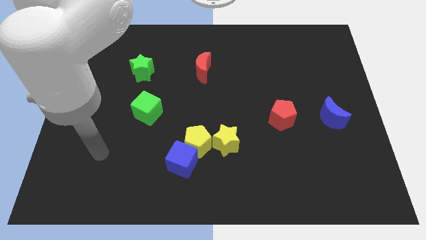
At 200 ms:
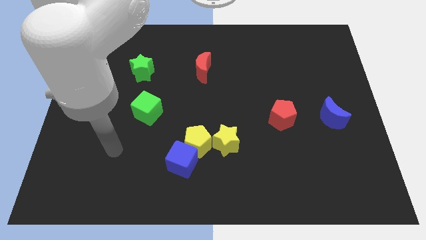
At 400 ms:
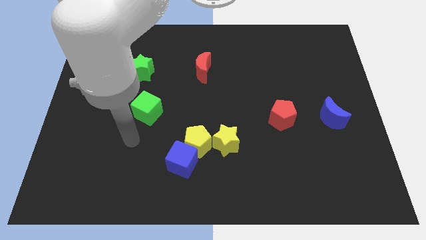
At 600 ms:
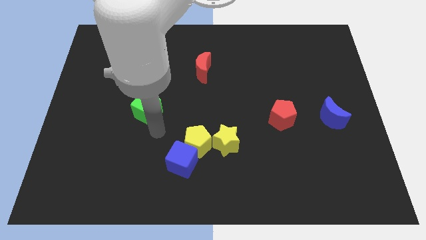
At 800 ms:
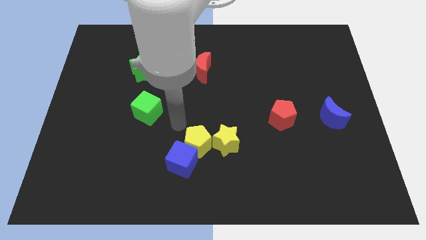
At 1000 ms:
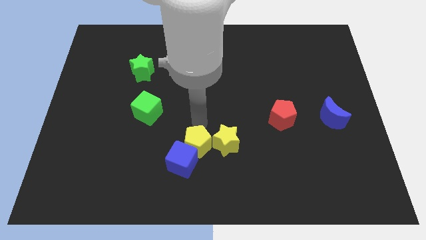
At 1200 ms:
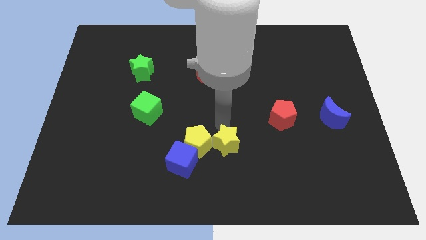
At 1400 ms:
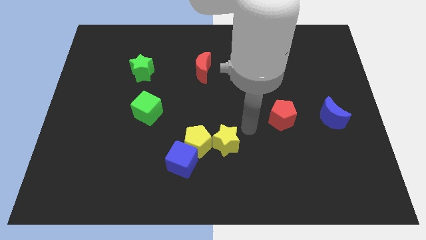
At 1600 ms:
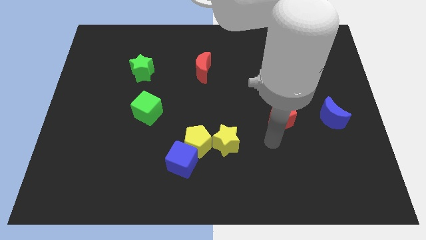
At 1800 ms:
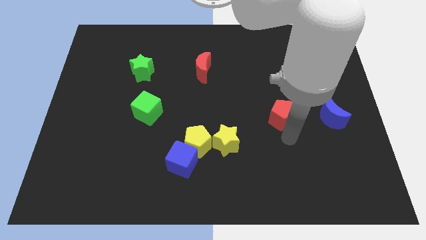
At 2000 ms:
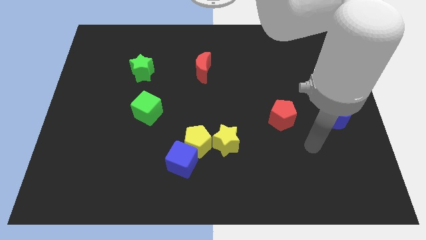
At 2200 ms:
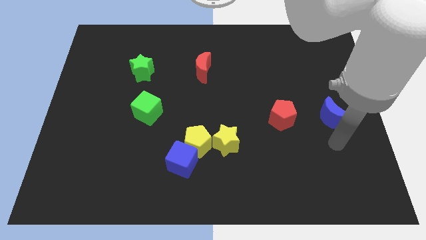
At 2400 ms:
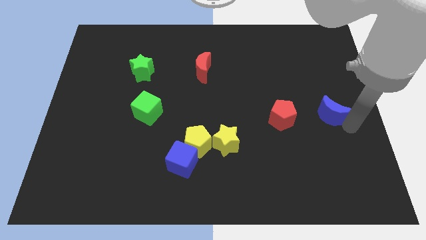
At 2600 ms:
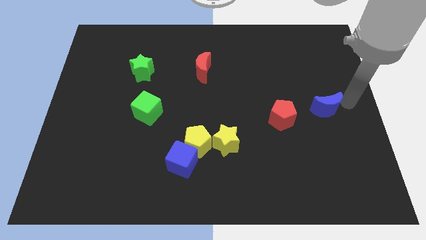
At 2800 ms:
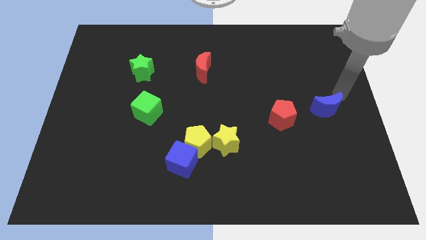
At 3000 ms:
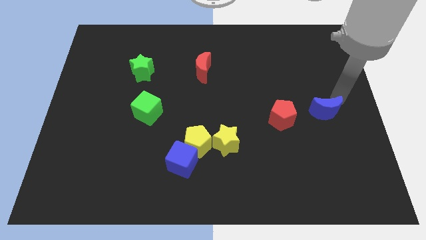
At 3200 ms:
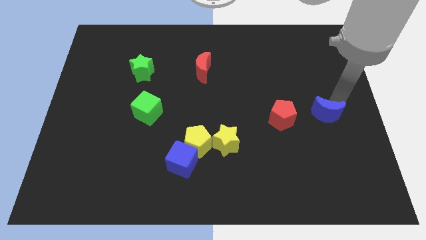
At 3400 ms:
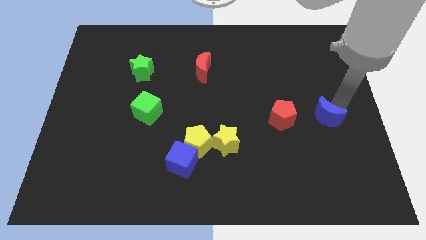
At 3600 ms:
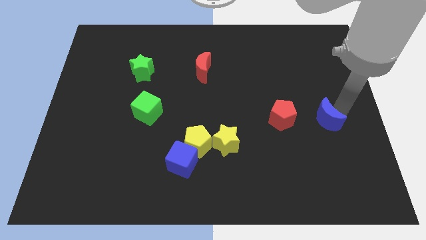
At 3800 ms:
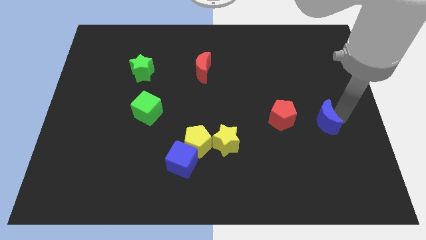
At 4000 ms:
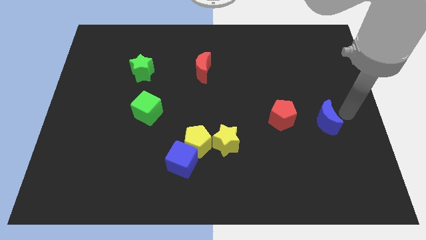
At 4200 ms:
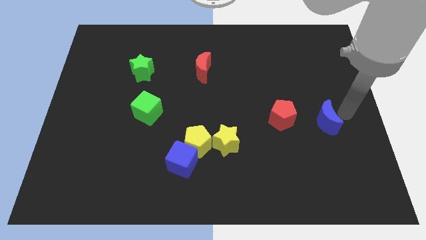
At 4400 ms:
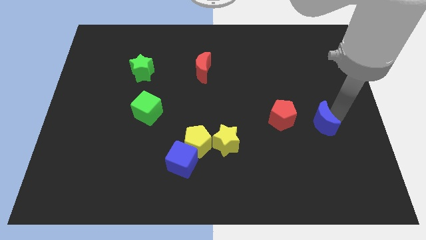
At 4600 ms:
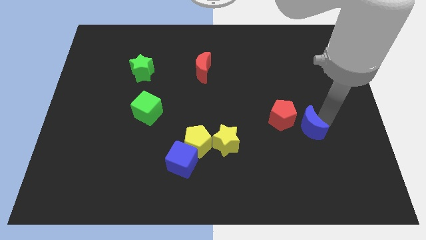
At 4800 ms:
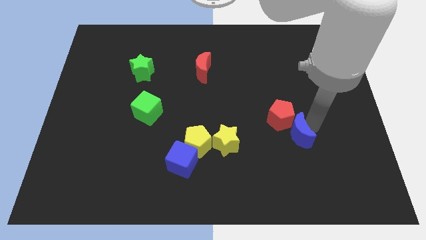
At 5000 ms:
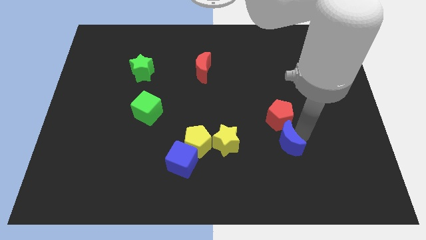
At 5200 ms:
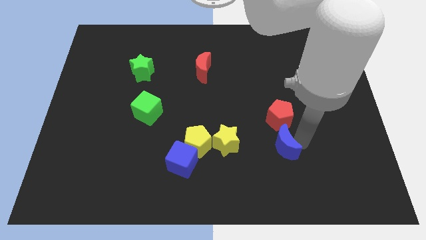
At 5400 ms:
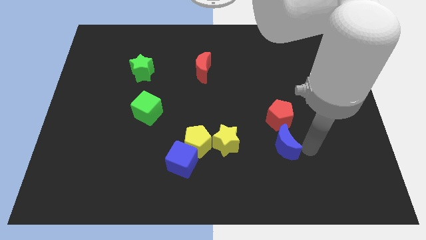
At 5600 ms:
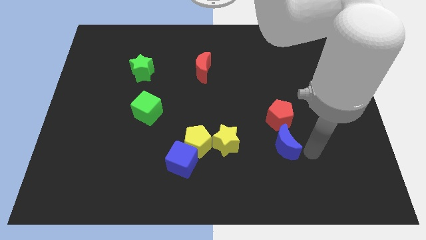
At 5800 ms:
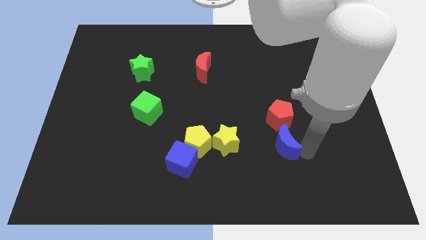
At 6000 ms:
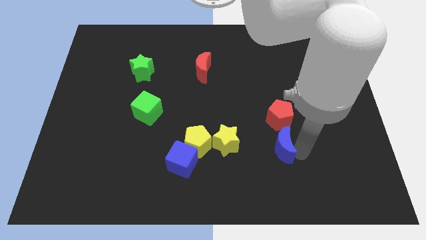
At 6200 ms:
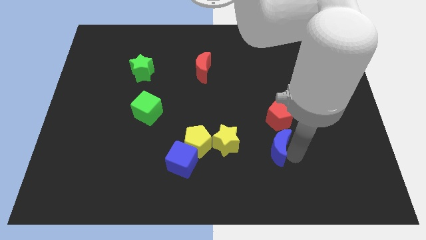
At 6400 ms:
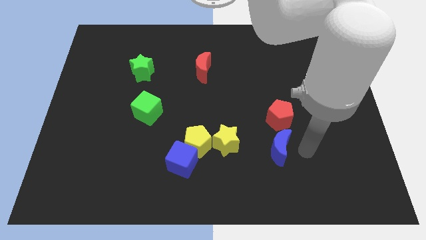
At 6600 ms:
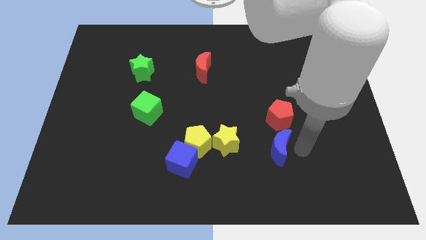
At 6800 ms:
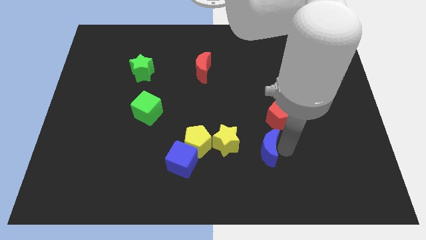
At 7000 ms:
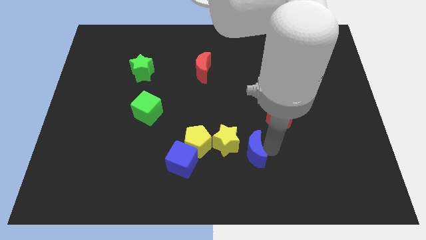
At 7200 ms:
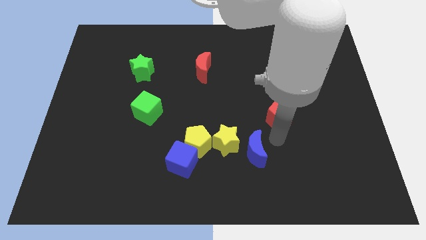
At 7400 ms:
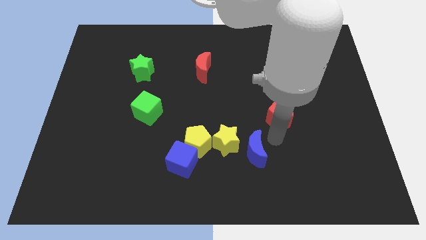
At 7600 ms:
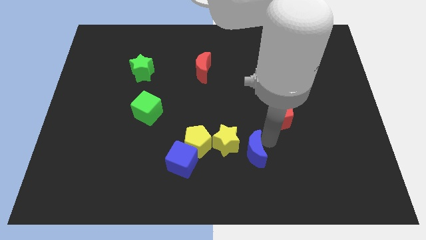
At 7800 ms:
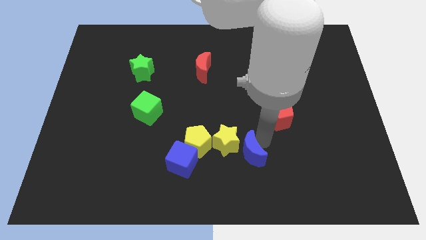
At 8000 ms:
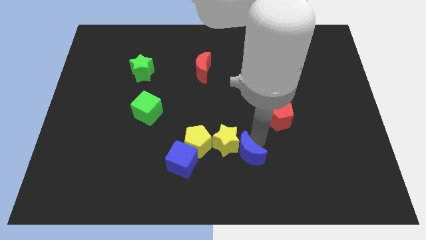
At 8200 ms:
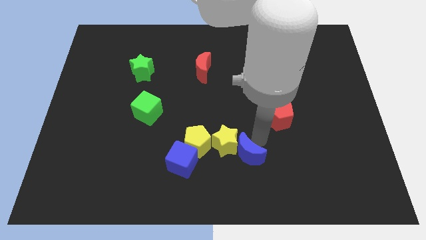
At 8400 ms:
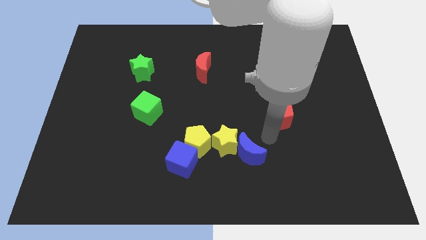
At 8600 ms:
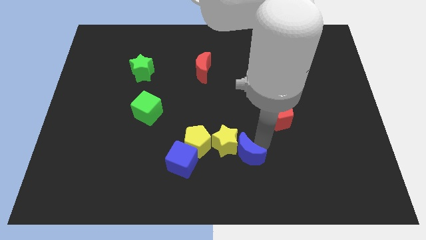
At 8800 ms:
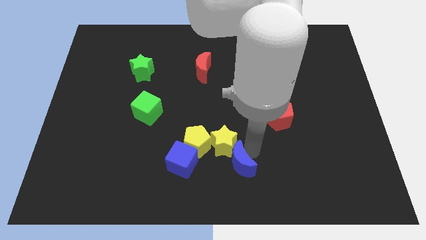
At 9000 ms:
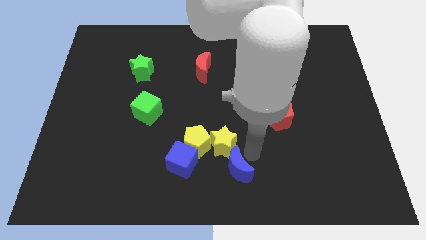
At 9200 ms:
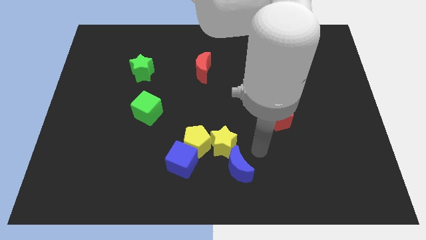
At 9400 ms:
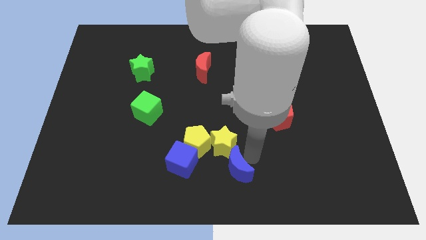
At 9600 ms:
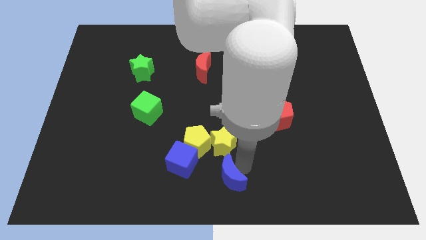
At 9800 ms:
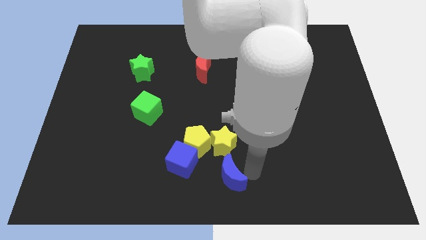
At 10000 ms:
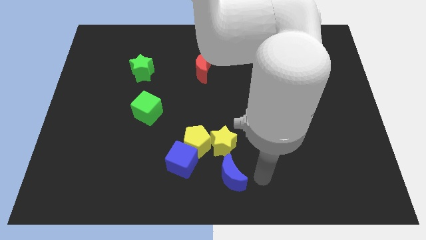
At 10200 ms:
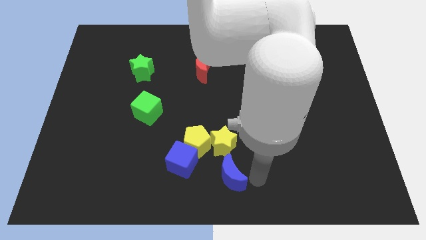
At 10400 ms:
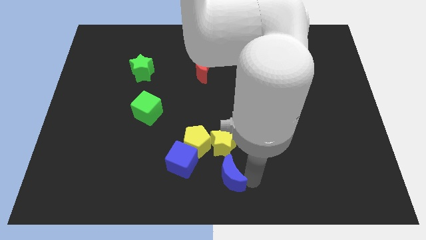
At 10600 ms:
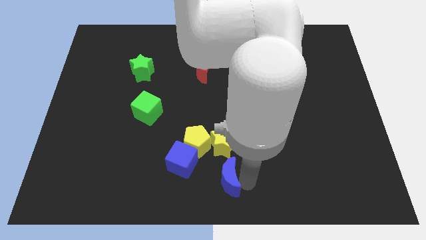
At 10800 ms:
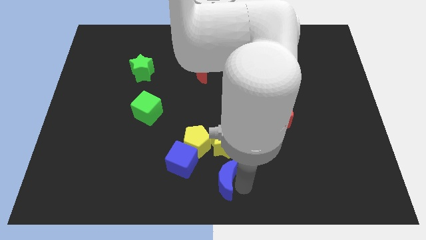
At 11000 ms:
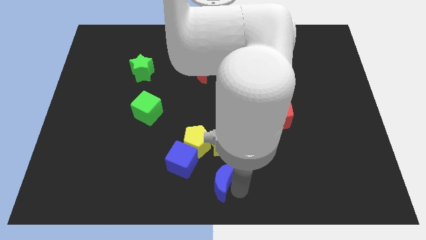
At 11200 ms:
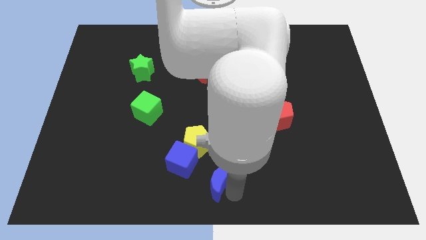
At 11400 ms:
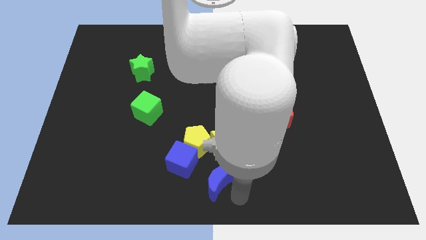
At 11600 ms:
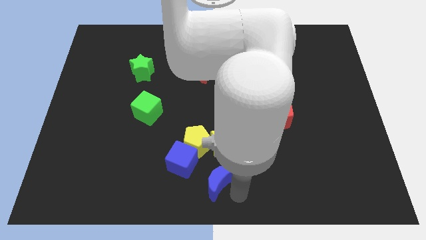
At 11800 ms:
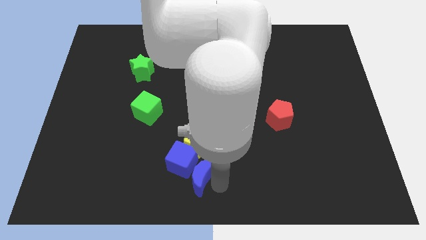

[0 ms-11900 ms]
slide the blue moon towards the blue cube

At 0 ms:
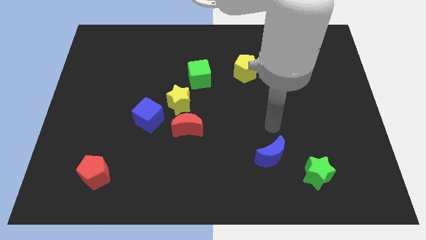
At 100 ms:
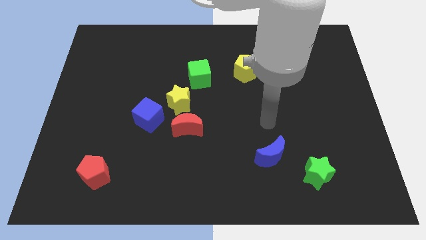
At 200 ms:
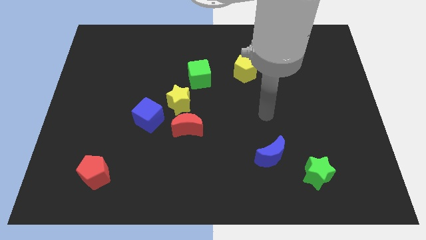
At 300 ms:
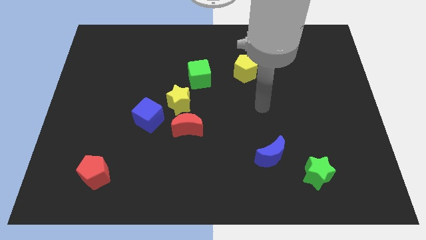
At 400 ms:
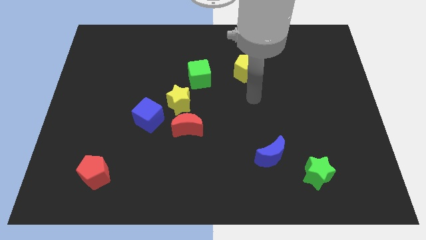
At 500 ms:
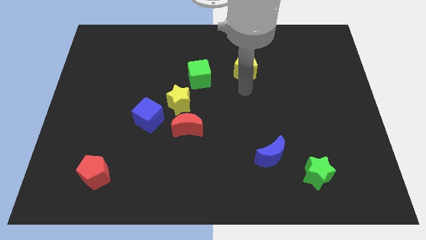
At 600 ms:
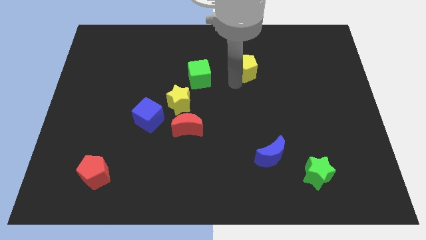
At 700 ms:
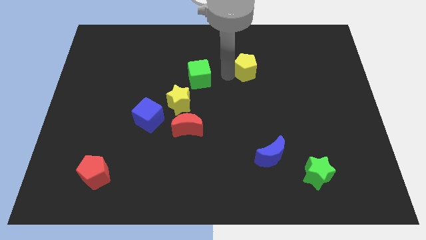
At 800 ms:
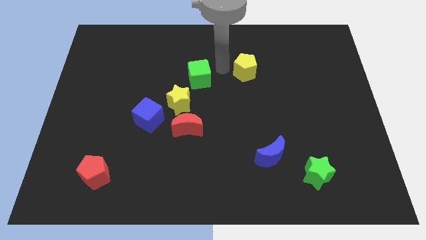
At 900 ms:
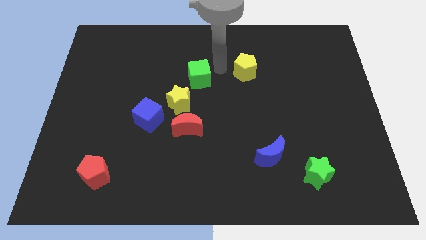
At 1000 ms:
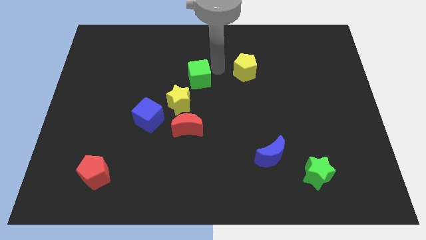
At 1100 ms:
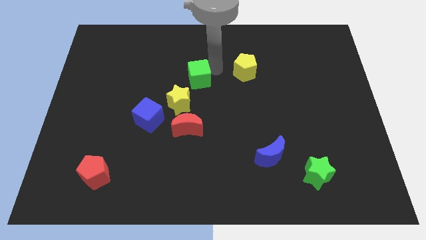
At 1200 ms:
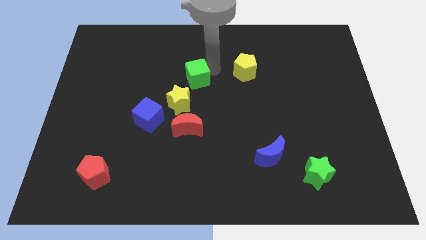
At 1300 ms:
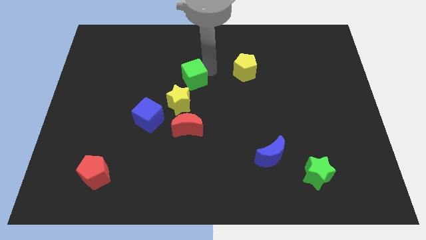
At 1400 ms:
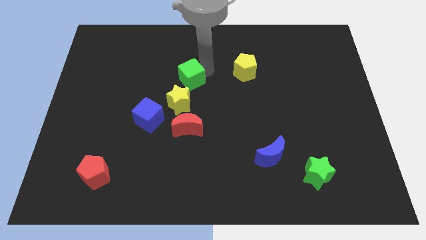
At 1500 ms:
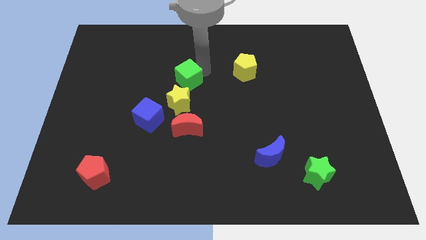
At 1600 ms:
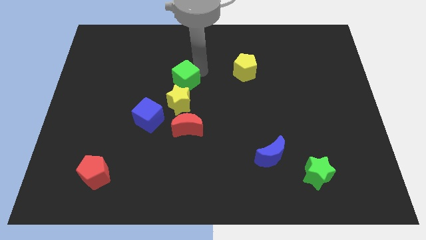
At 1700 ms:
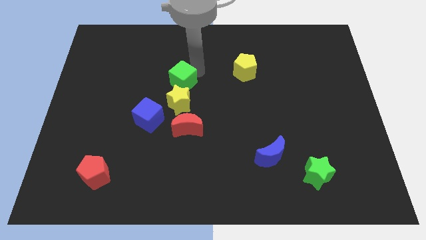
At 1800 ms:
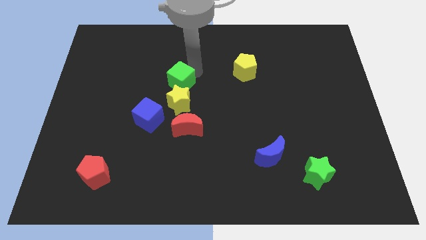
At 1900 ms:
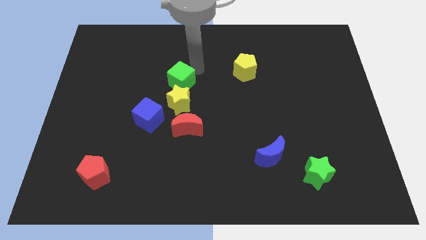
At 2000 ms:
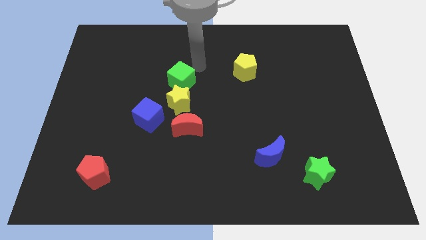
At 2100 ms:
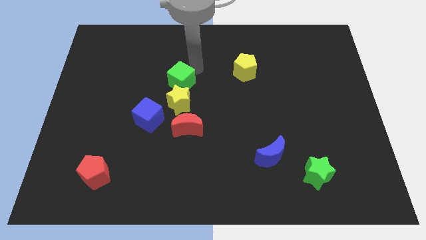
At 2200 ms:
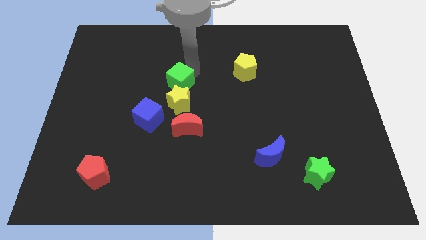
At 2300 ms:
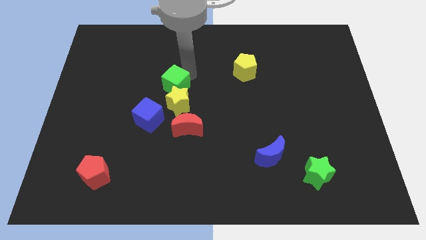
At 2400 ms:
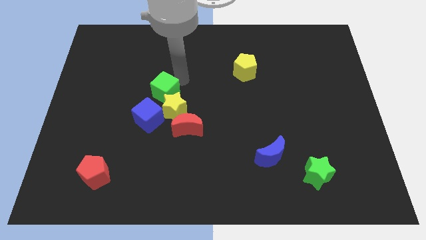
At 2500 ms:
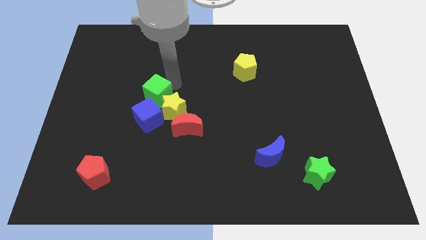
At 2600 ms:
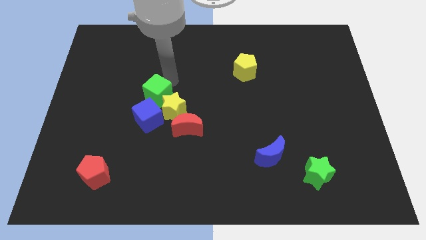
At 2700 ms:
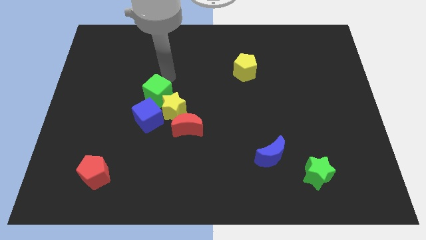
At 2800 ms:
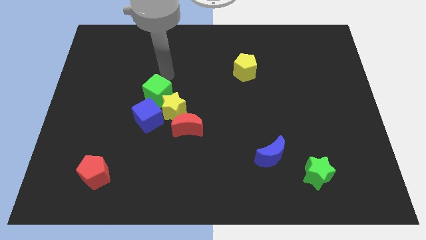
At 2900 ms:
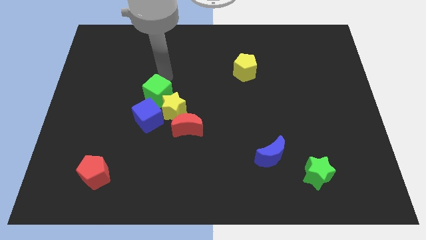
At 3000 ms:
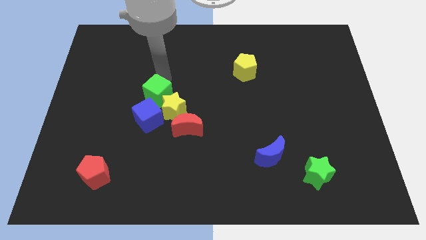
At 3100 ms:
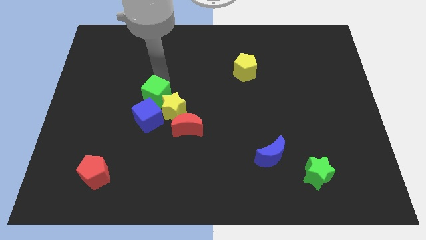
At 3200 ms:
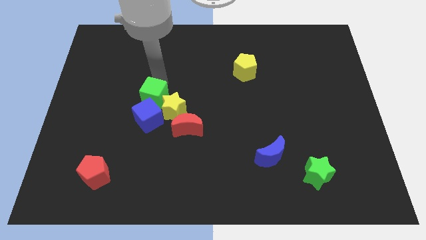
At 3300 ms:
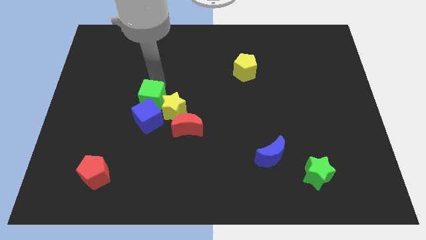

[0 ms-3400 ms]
slide the green cube to the blue cube
